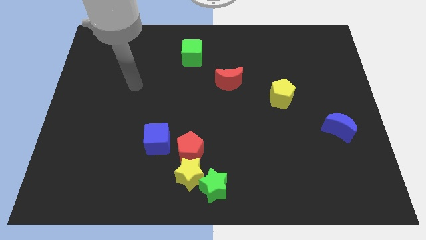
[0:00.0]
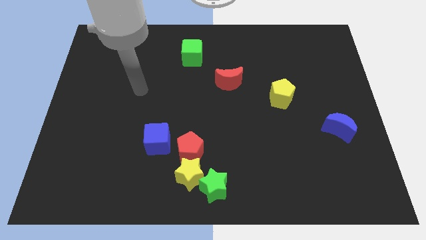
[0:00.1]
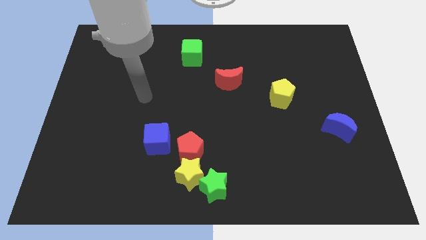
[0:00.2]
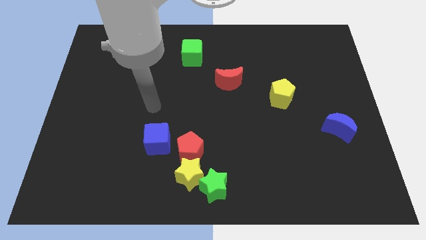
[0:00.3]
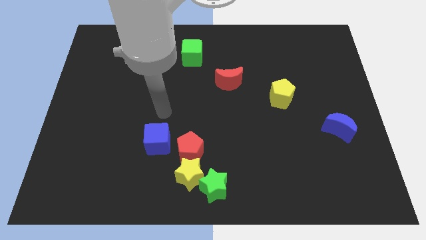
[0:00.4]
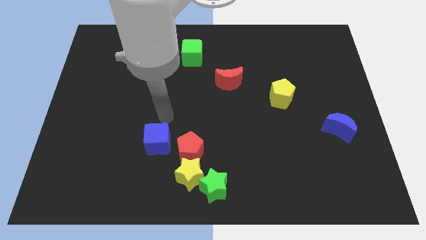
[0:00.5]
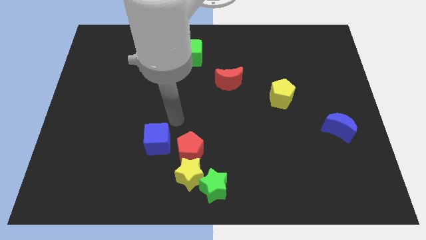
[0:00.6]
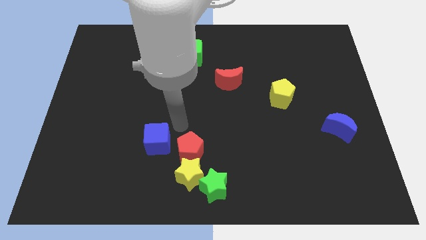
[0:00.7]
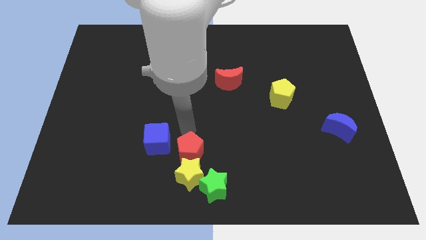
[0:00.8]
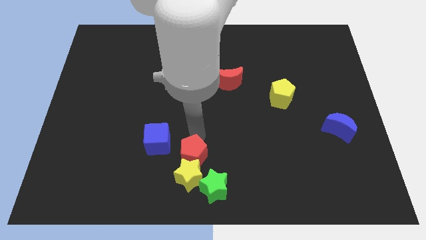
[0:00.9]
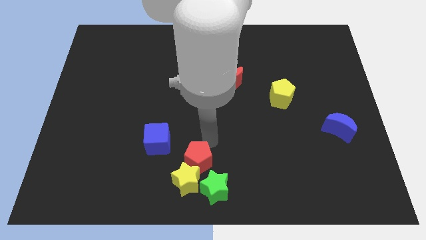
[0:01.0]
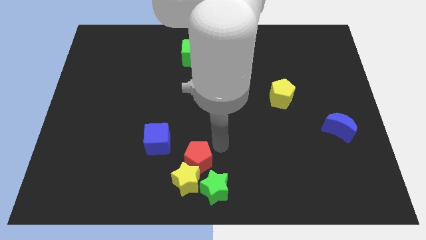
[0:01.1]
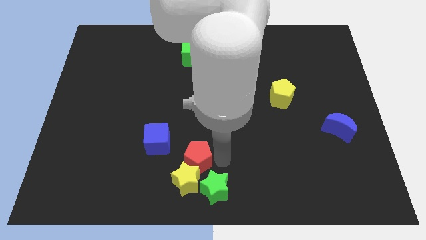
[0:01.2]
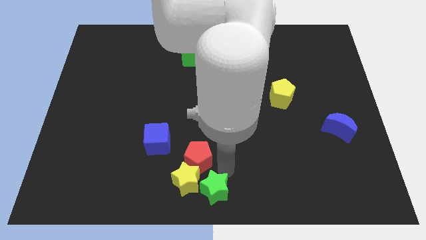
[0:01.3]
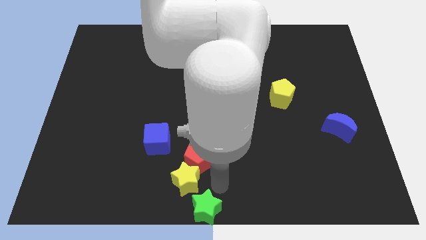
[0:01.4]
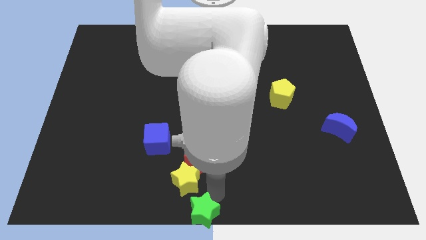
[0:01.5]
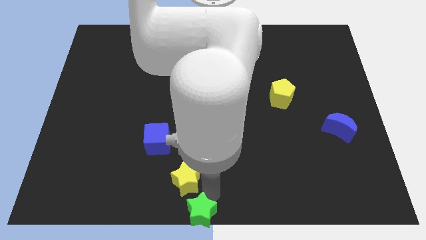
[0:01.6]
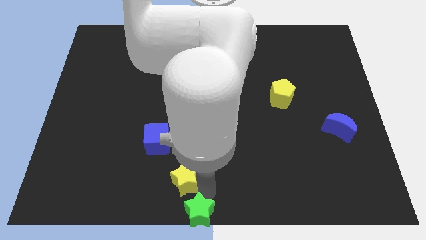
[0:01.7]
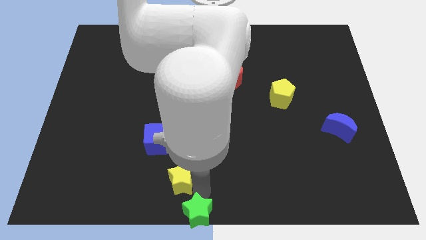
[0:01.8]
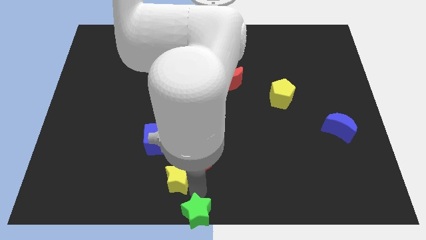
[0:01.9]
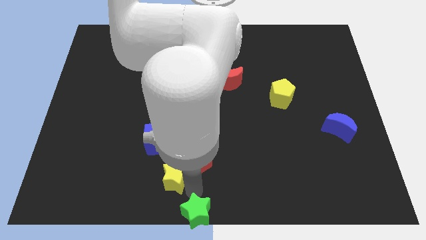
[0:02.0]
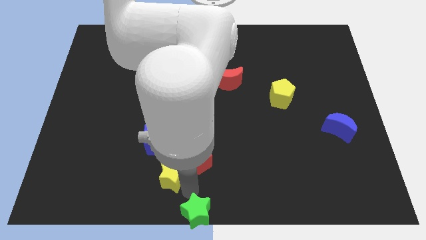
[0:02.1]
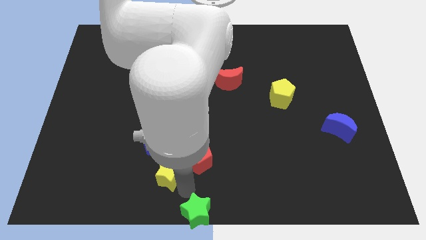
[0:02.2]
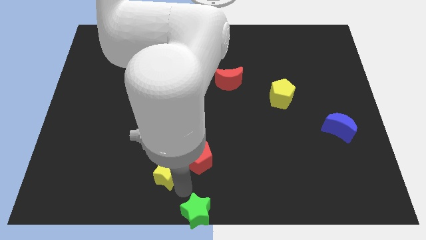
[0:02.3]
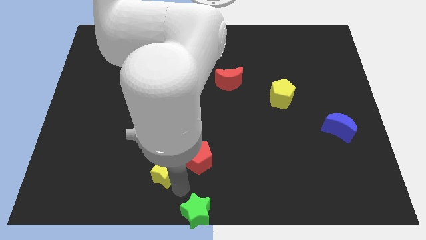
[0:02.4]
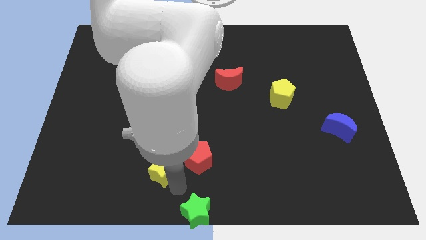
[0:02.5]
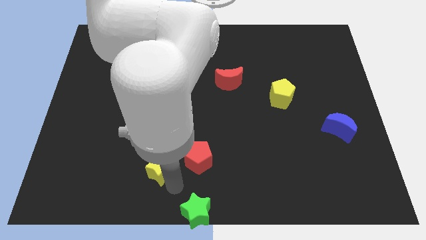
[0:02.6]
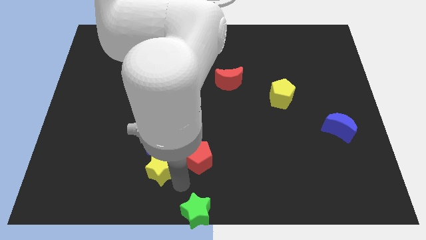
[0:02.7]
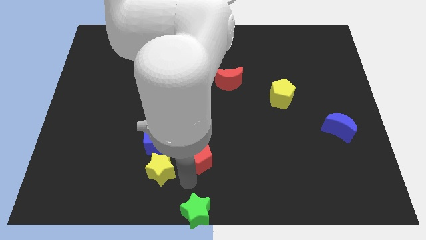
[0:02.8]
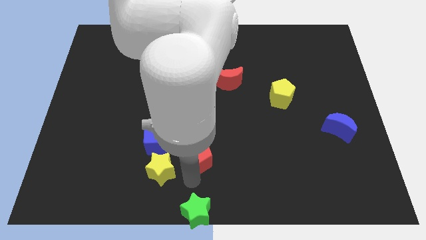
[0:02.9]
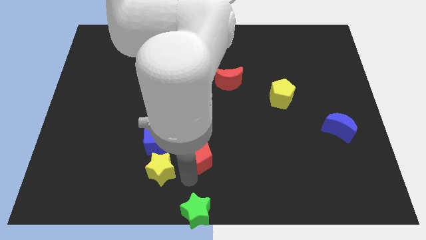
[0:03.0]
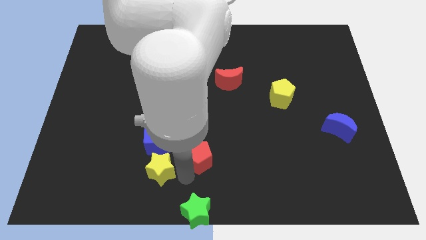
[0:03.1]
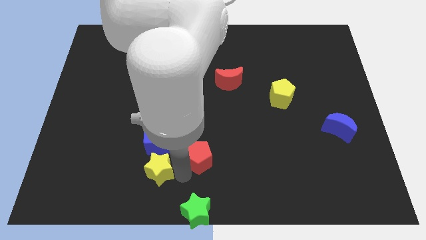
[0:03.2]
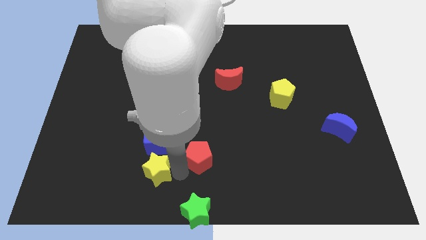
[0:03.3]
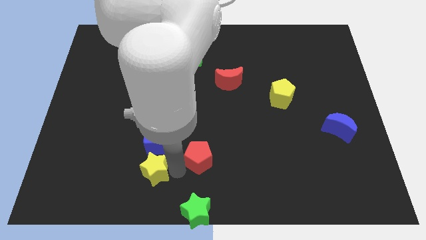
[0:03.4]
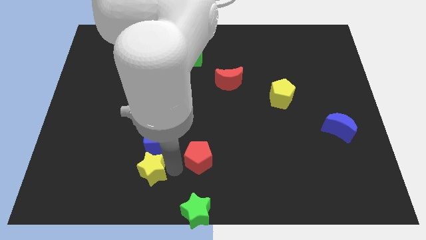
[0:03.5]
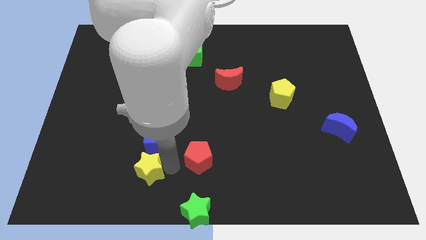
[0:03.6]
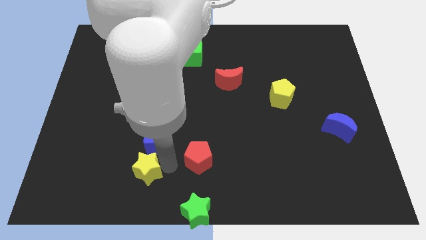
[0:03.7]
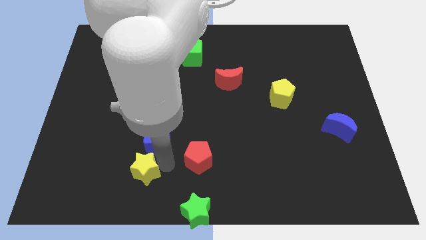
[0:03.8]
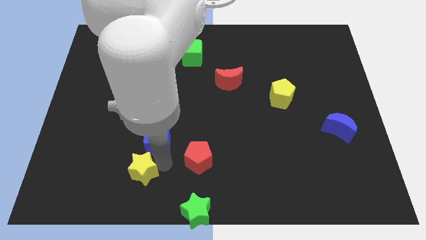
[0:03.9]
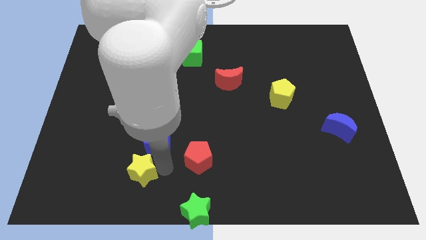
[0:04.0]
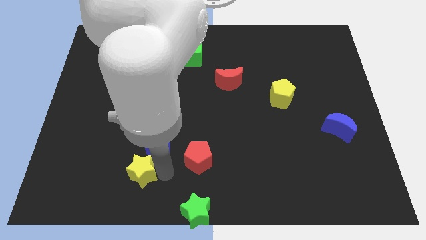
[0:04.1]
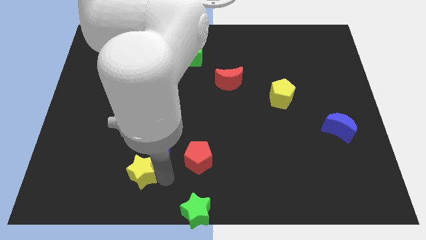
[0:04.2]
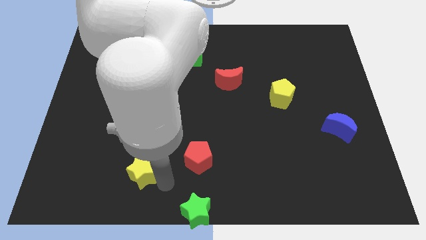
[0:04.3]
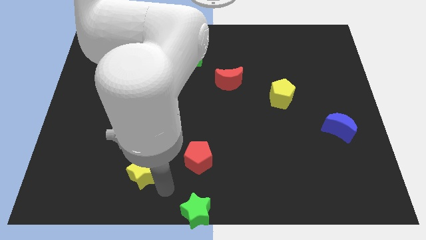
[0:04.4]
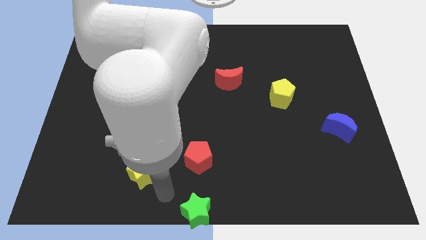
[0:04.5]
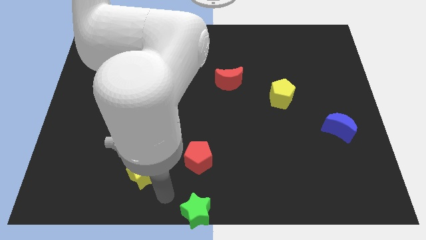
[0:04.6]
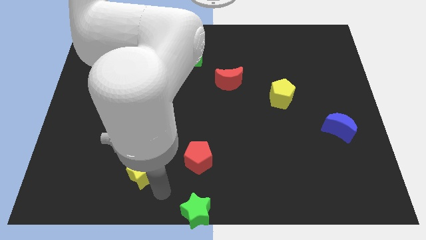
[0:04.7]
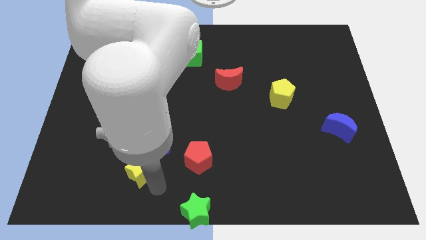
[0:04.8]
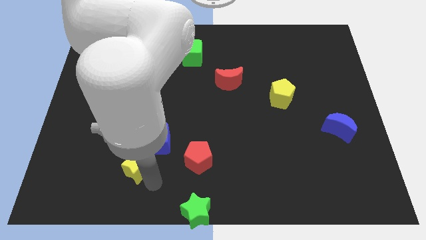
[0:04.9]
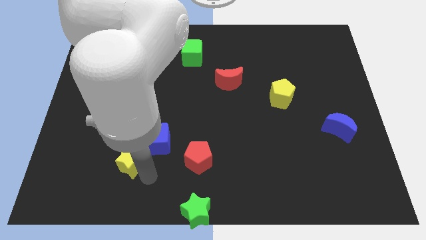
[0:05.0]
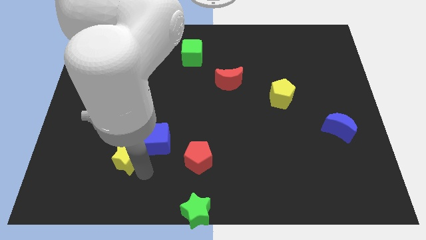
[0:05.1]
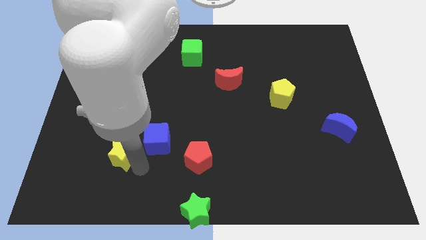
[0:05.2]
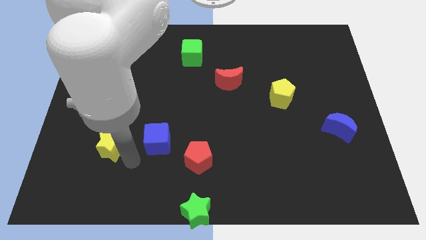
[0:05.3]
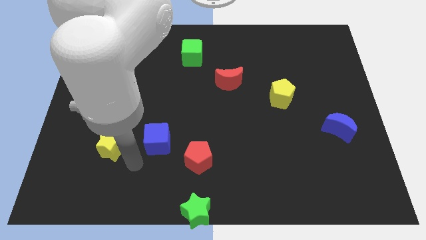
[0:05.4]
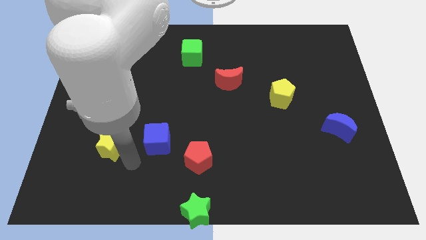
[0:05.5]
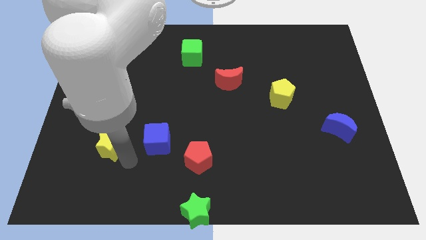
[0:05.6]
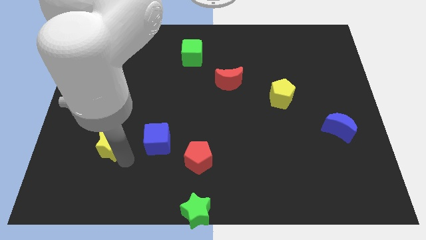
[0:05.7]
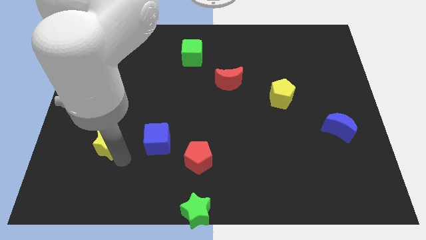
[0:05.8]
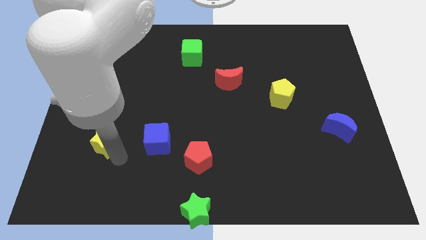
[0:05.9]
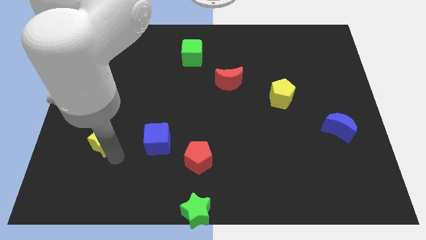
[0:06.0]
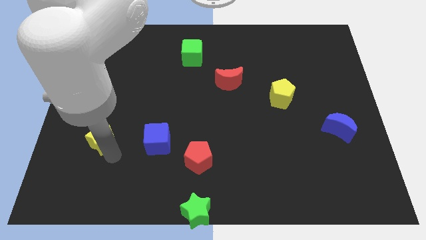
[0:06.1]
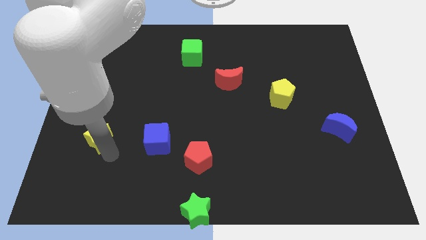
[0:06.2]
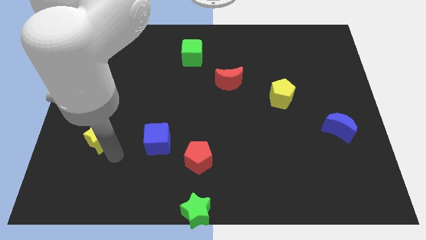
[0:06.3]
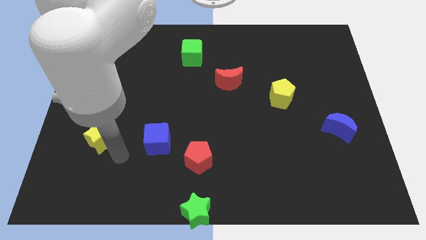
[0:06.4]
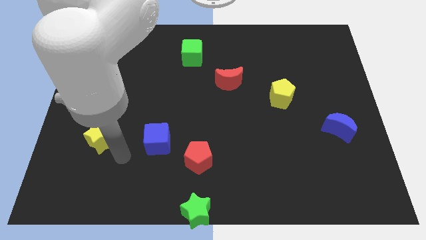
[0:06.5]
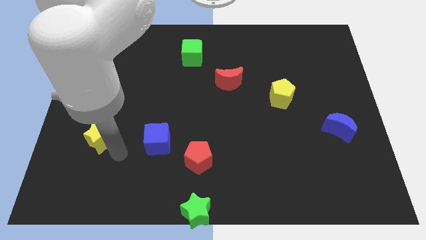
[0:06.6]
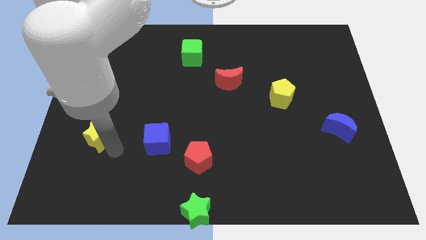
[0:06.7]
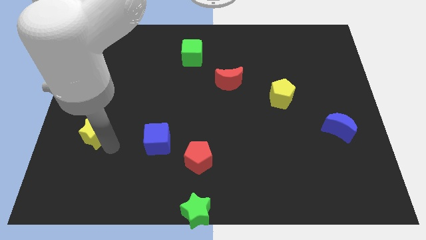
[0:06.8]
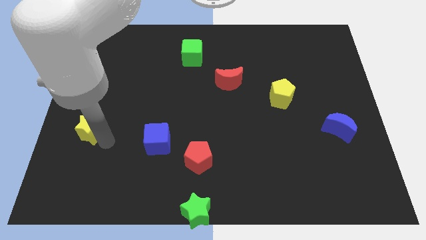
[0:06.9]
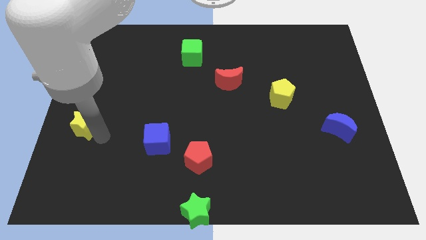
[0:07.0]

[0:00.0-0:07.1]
put the yellow star to the center left

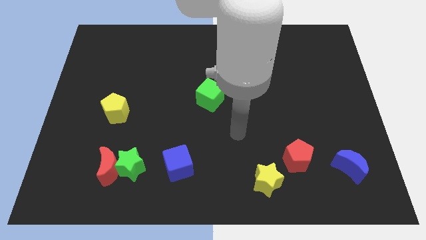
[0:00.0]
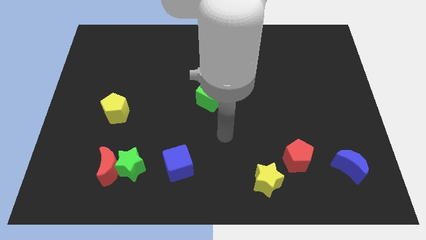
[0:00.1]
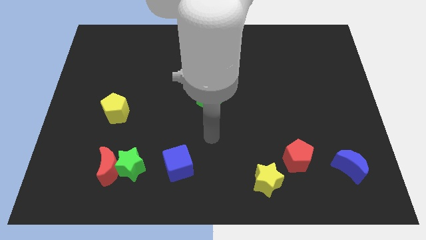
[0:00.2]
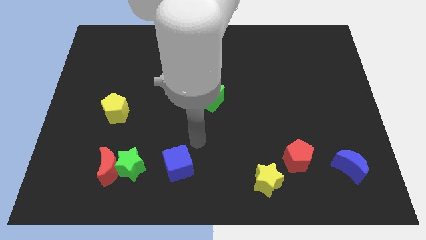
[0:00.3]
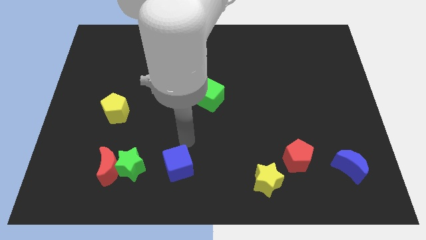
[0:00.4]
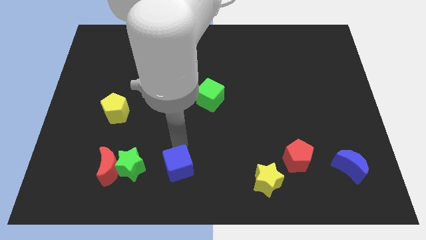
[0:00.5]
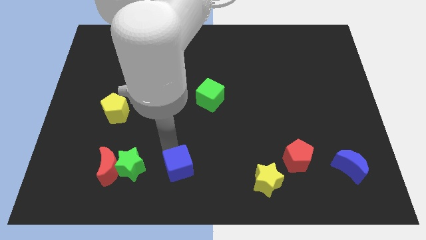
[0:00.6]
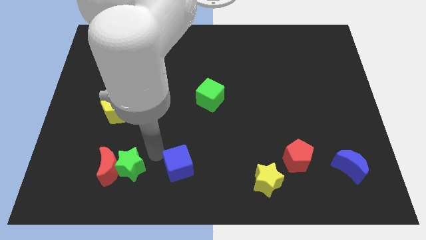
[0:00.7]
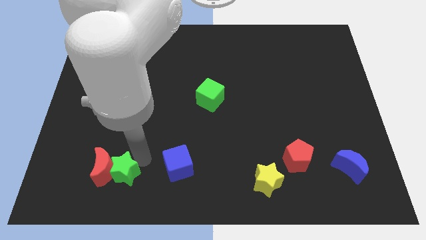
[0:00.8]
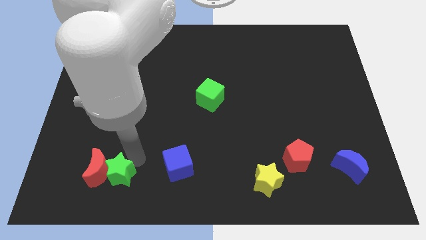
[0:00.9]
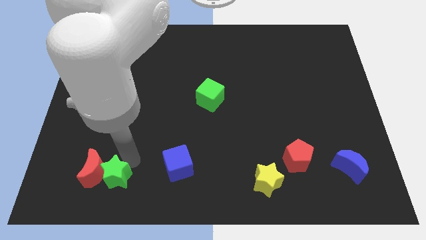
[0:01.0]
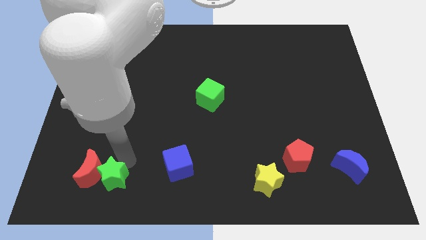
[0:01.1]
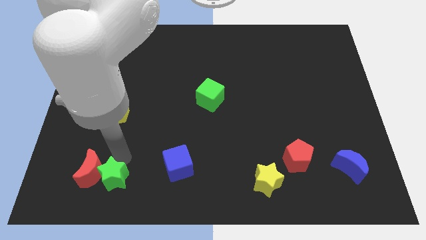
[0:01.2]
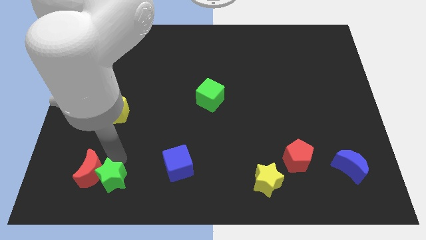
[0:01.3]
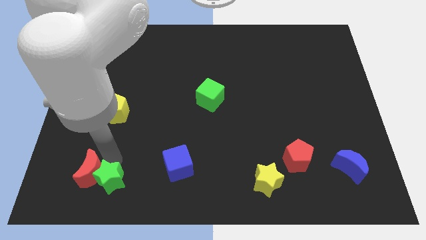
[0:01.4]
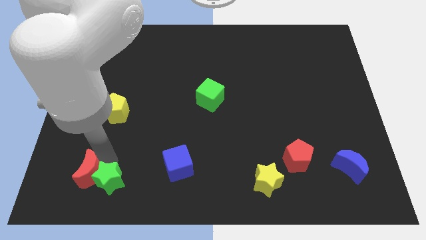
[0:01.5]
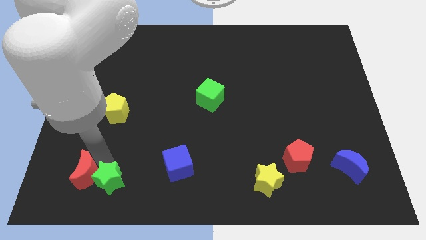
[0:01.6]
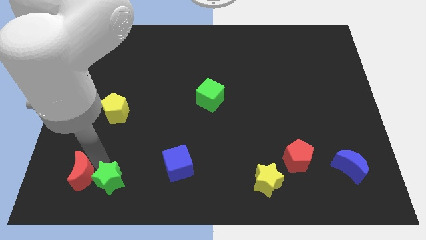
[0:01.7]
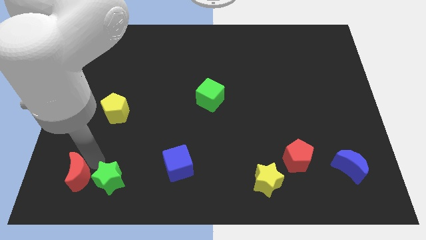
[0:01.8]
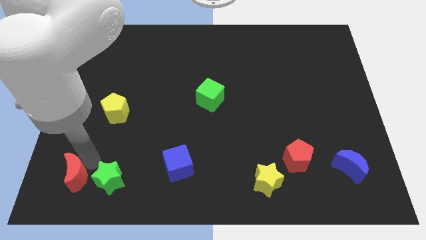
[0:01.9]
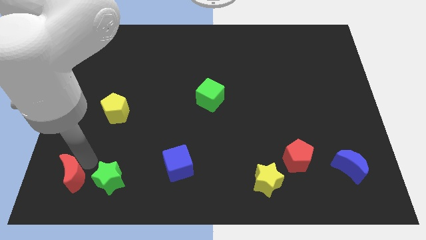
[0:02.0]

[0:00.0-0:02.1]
slide the red moon to the bottom left corner
